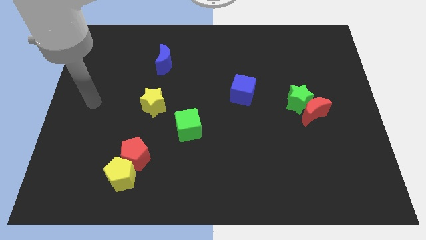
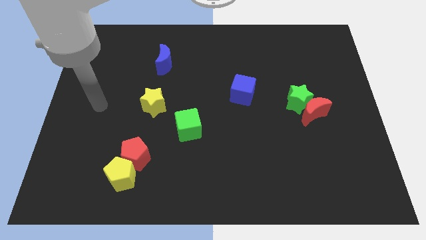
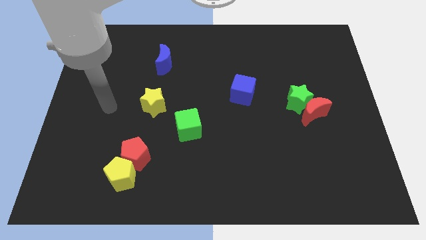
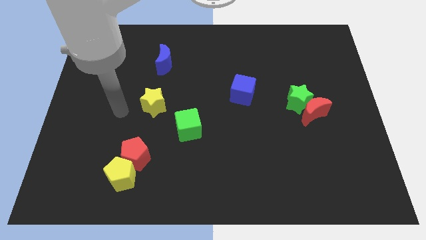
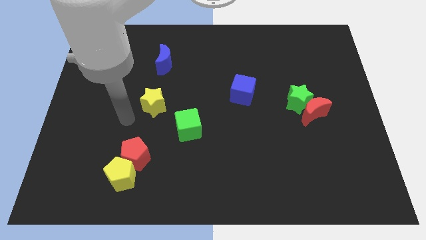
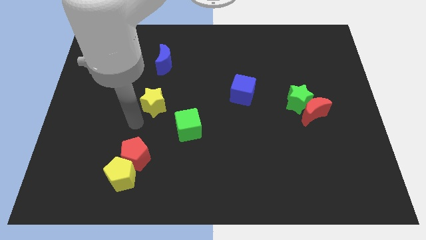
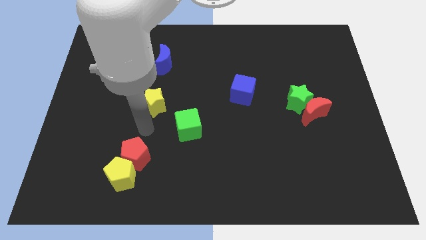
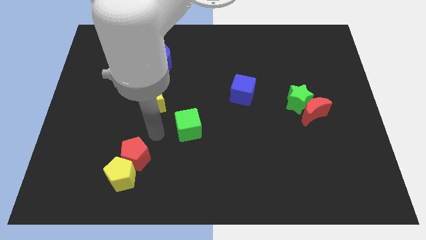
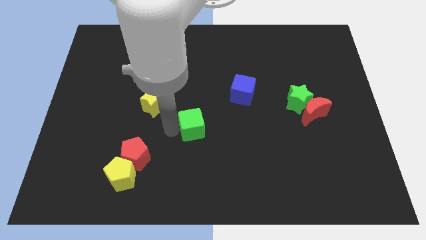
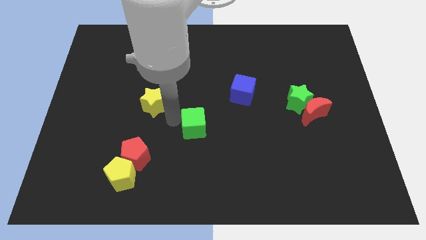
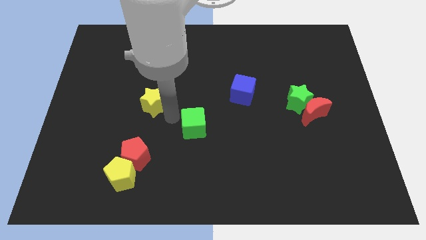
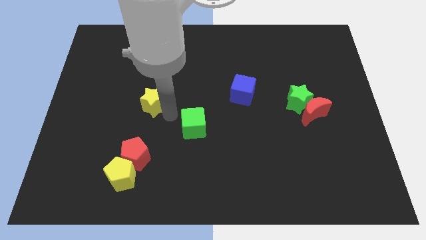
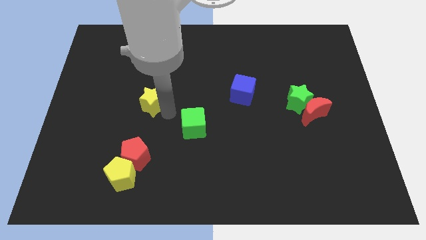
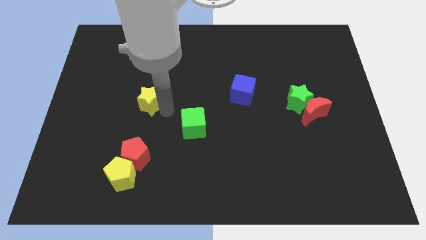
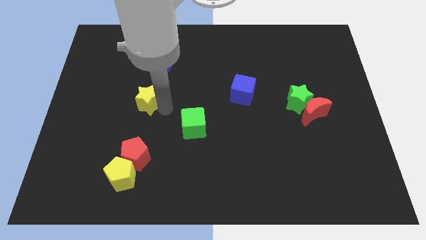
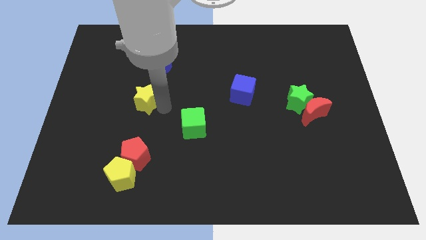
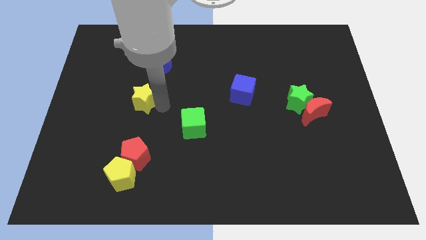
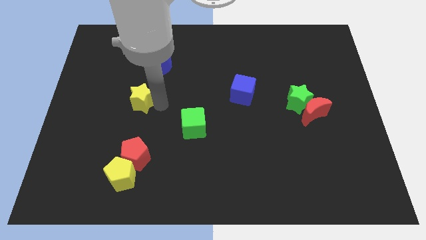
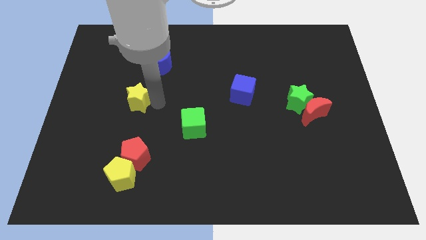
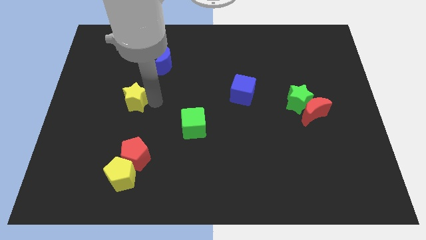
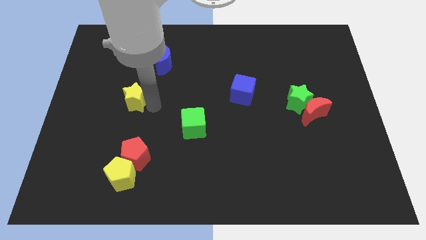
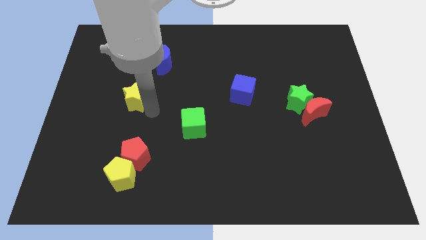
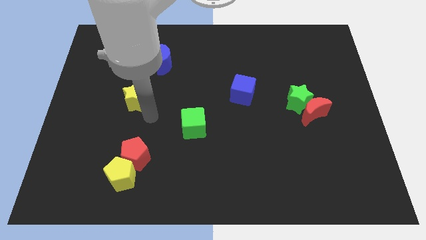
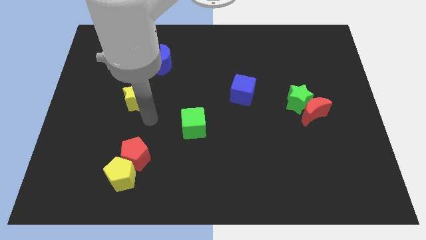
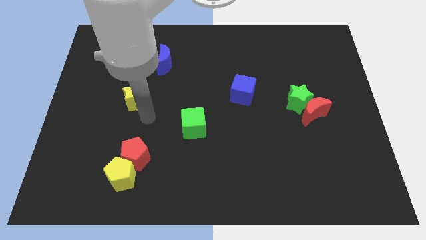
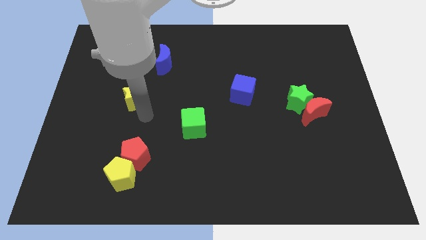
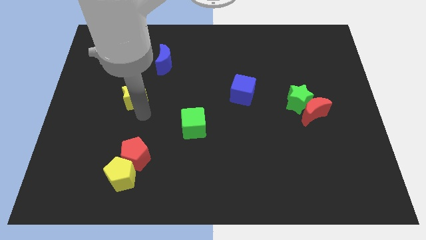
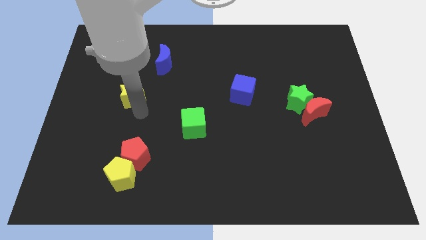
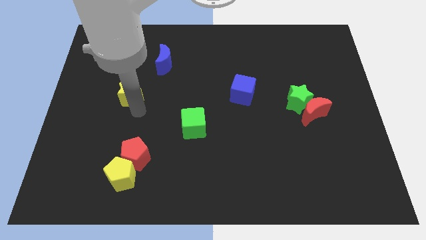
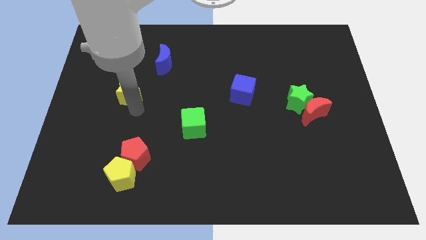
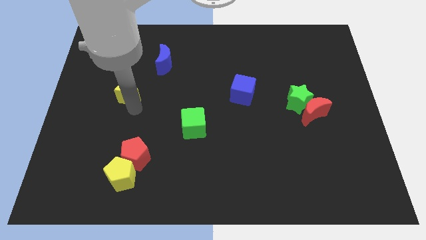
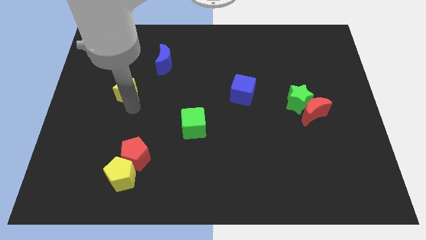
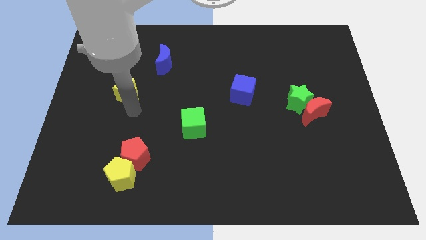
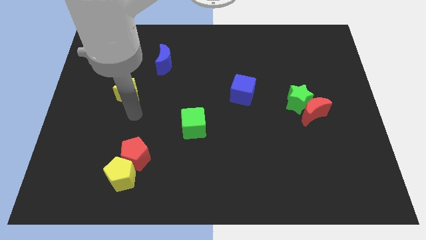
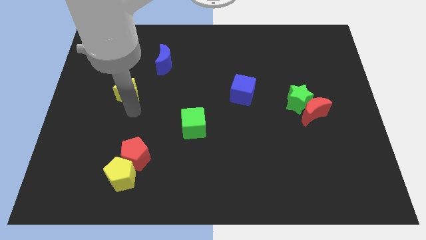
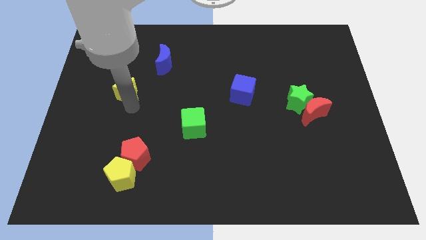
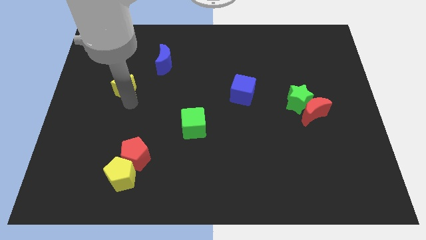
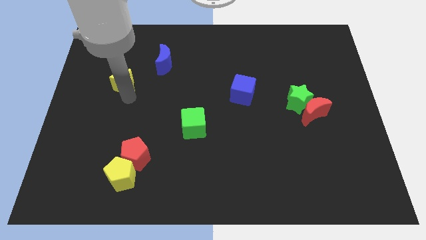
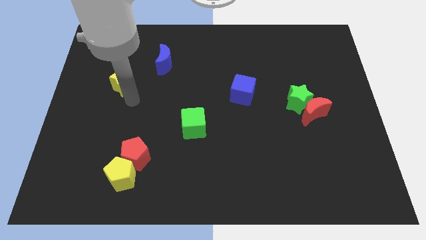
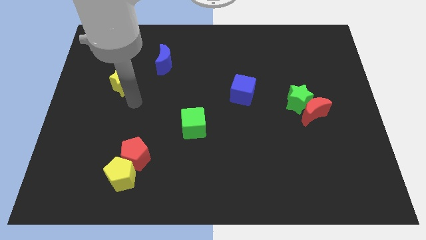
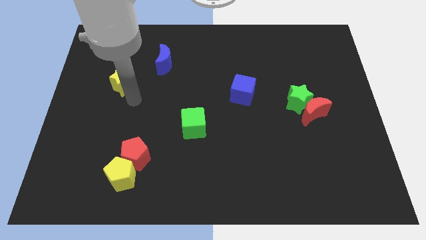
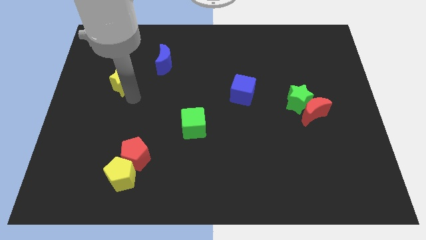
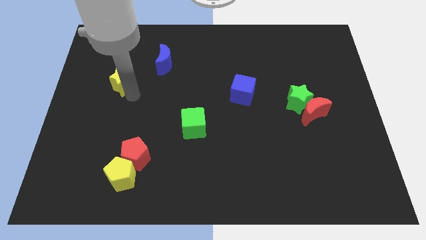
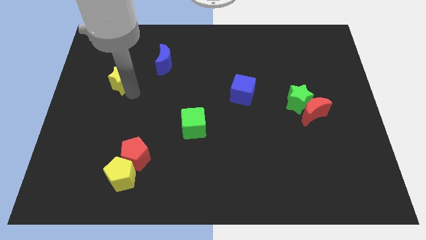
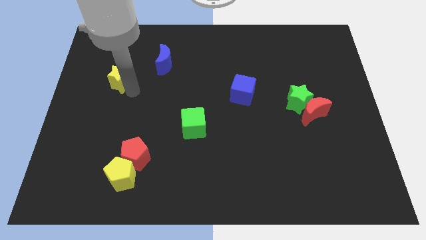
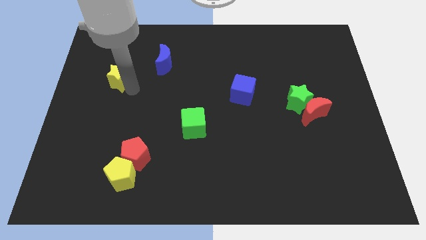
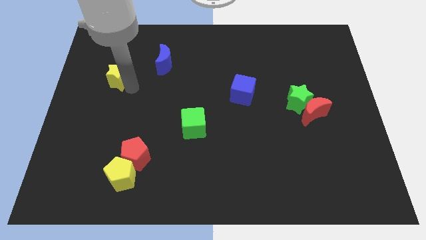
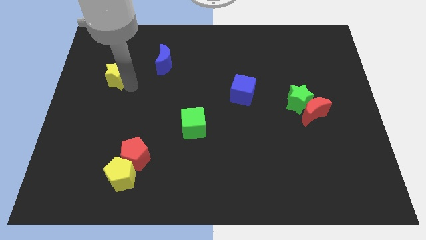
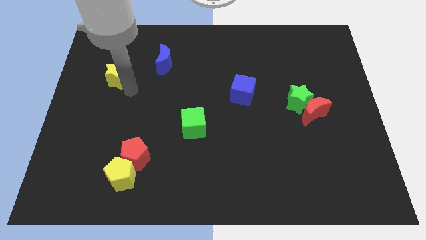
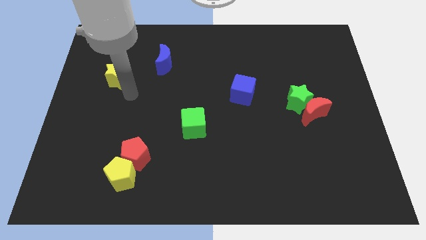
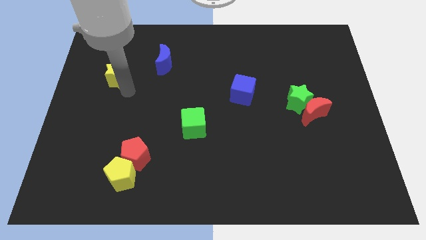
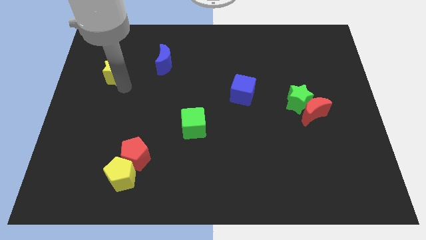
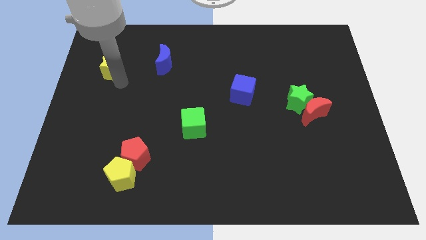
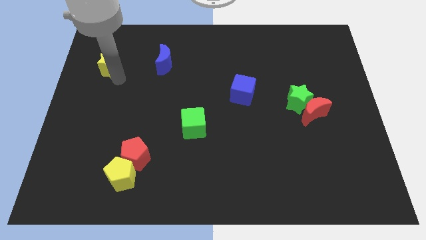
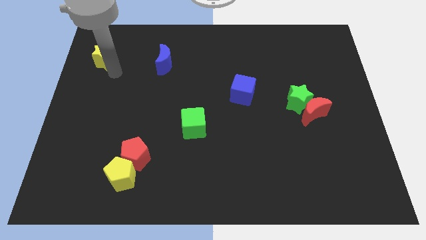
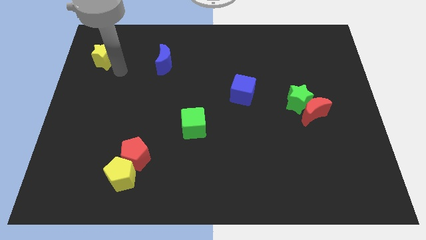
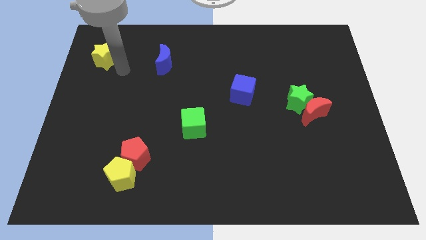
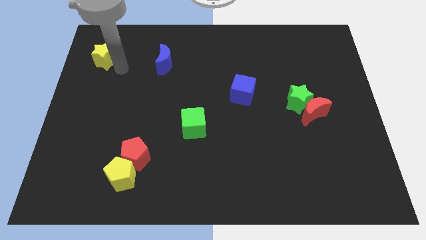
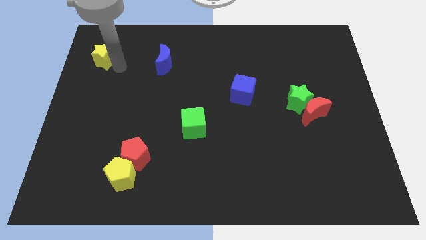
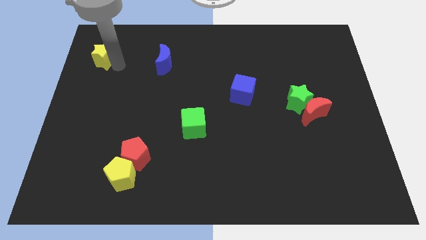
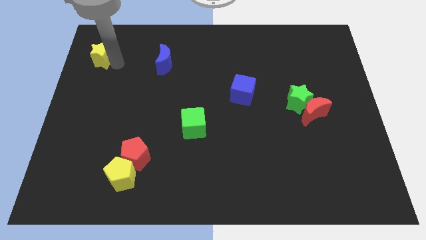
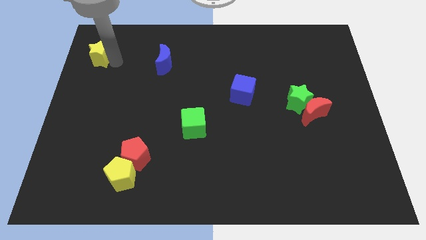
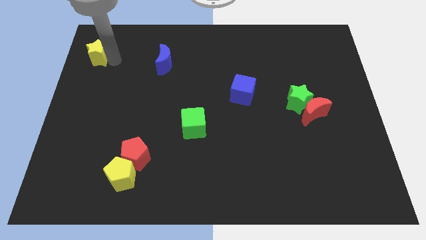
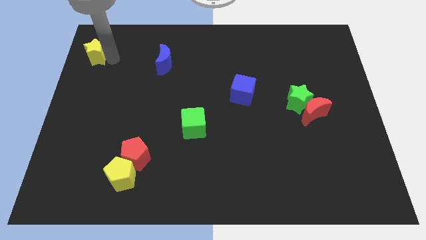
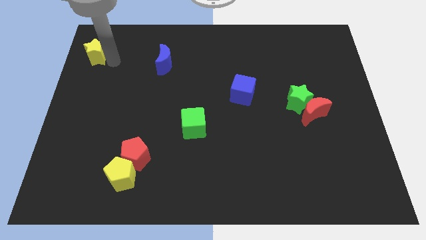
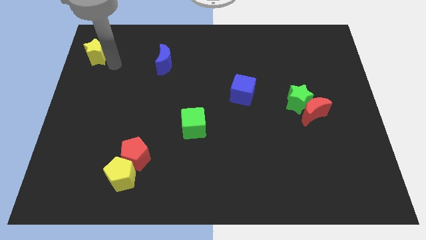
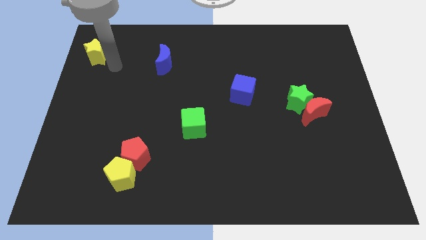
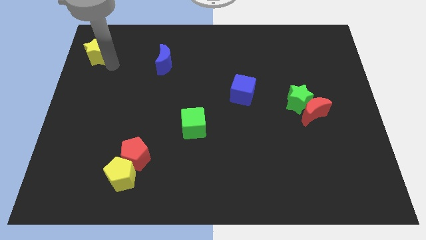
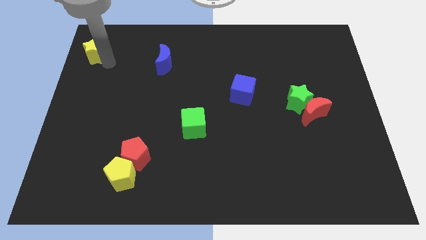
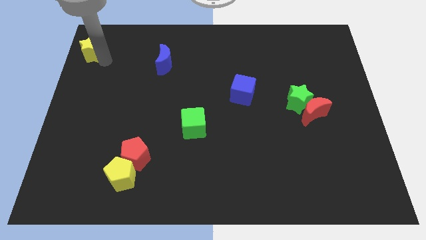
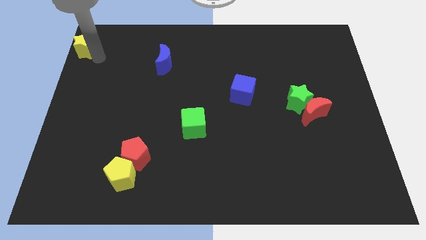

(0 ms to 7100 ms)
push the yellow star to the top left of the board
